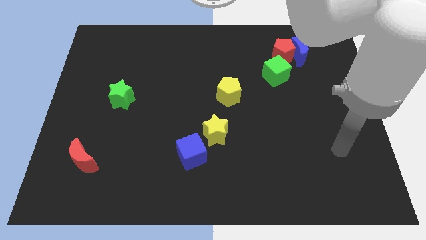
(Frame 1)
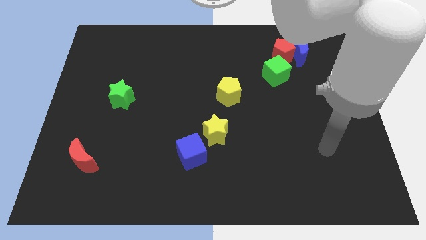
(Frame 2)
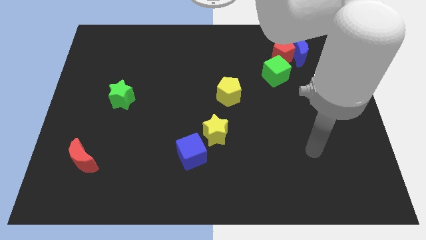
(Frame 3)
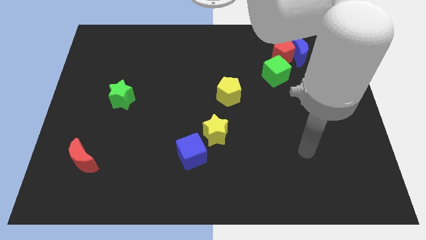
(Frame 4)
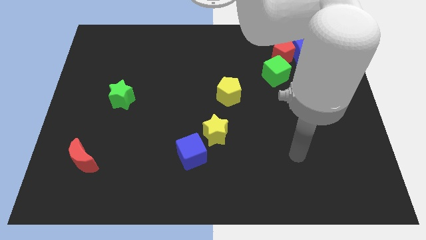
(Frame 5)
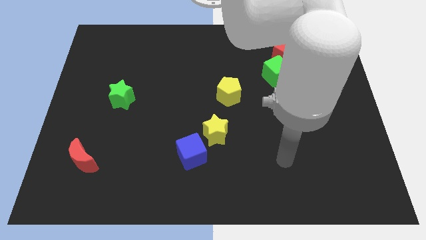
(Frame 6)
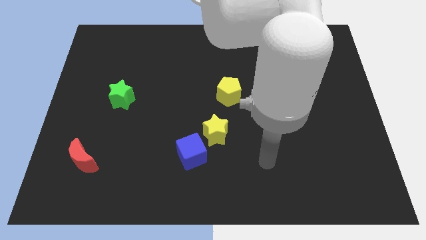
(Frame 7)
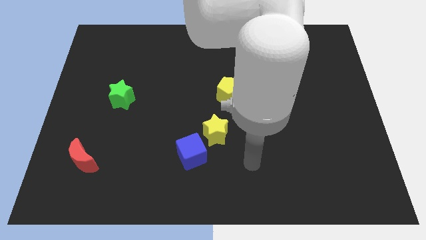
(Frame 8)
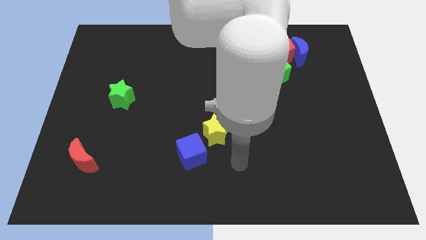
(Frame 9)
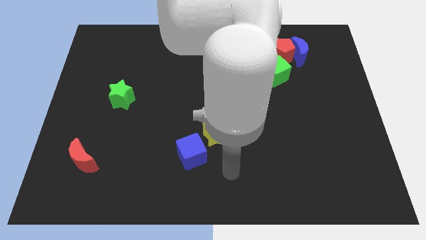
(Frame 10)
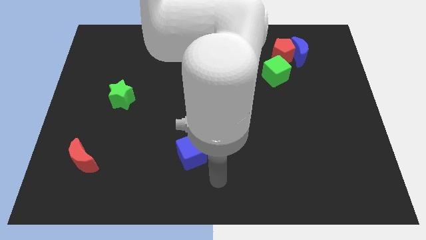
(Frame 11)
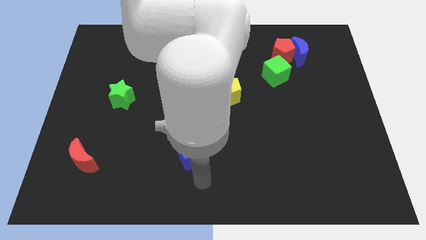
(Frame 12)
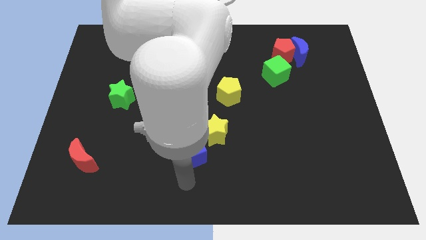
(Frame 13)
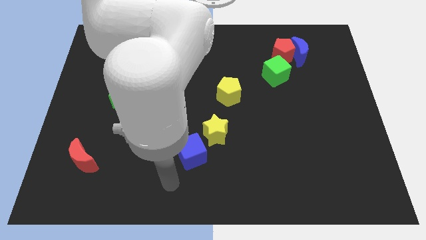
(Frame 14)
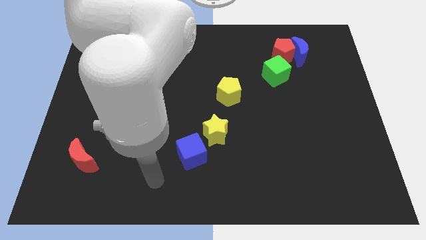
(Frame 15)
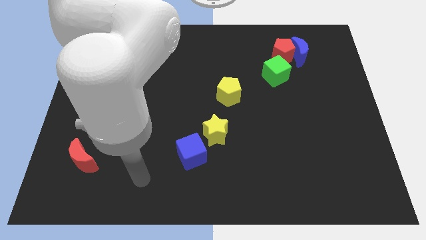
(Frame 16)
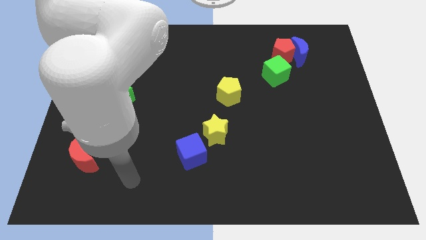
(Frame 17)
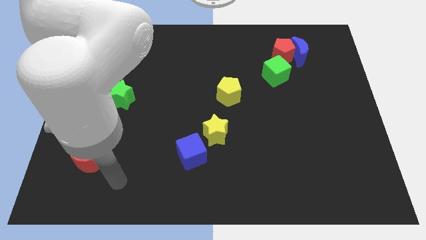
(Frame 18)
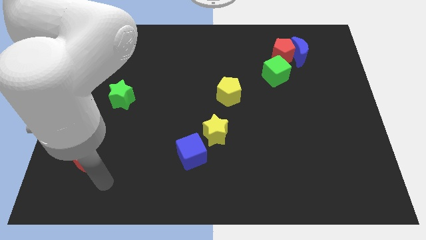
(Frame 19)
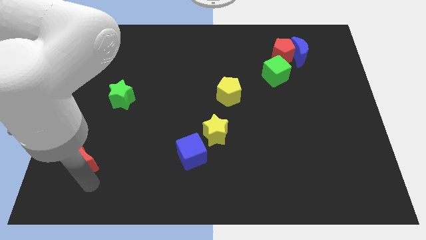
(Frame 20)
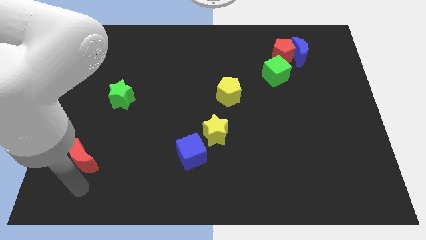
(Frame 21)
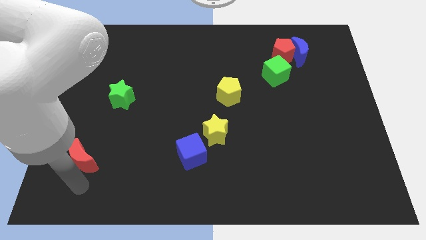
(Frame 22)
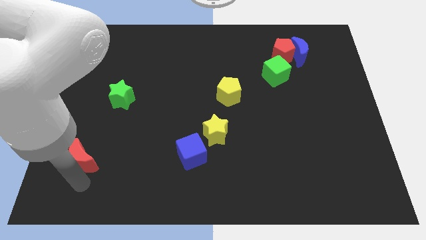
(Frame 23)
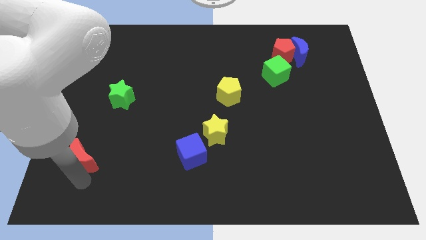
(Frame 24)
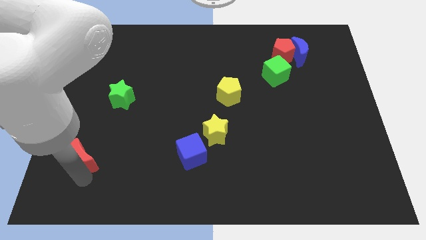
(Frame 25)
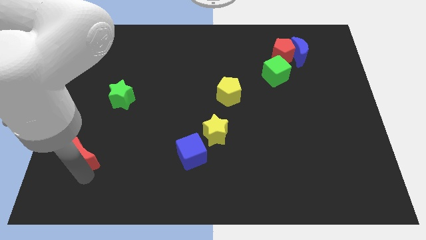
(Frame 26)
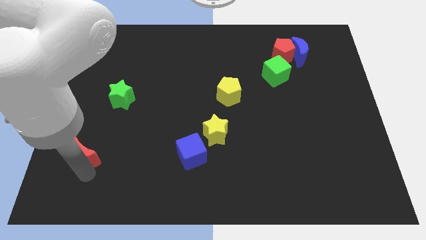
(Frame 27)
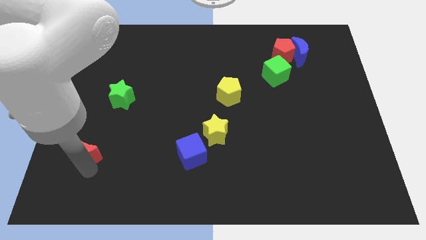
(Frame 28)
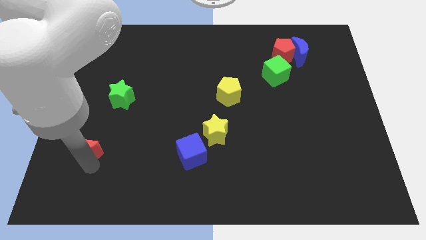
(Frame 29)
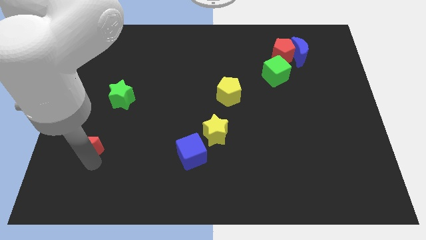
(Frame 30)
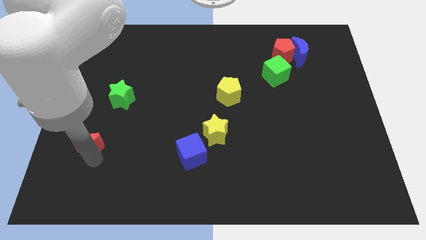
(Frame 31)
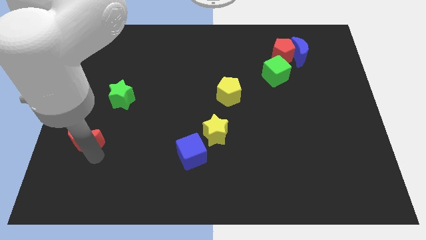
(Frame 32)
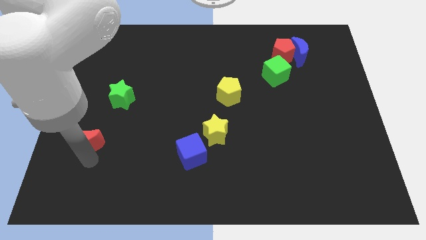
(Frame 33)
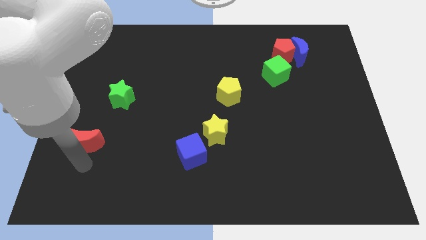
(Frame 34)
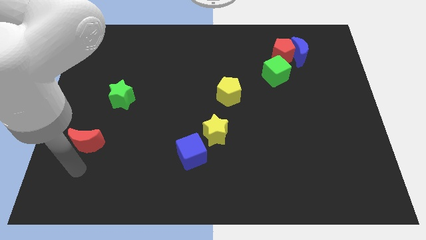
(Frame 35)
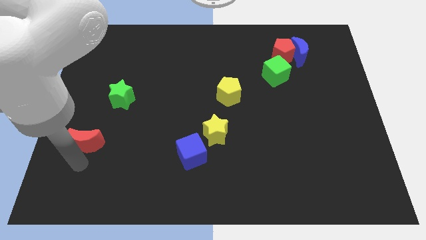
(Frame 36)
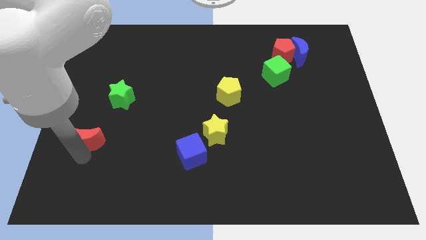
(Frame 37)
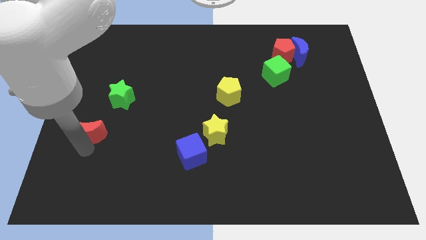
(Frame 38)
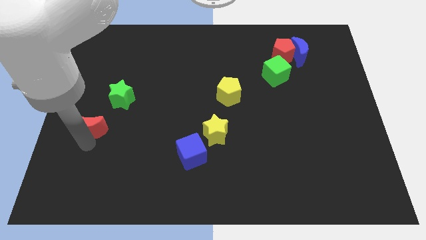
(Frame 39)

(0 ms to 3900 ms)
push the red moon a bit up

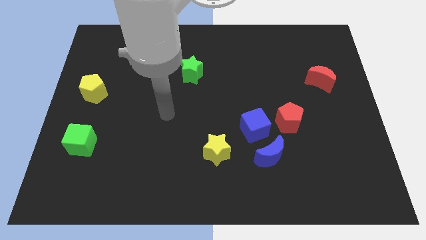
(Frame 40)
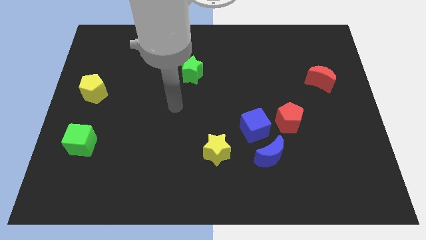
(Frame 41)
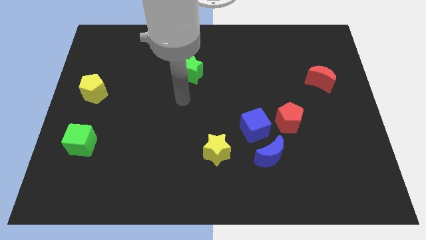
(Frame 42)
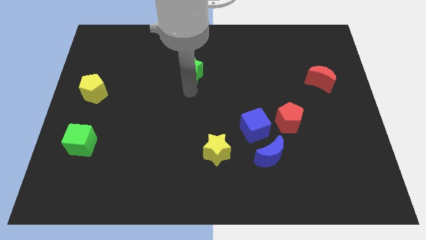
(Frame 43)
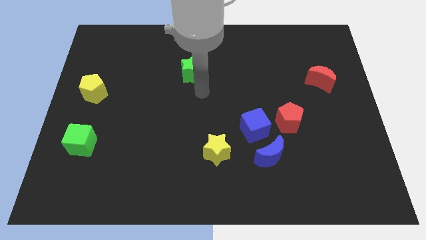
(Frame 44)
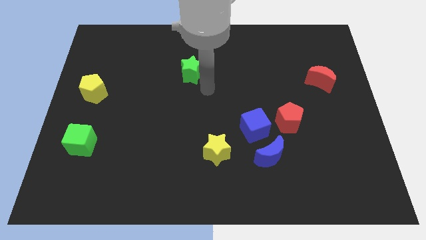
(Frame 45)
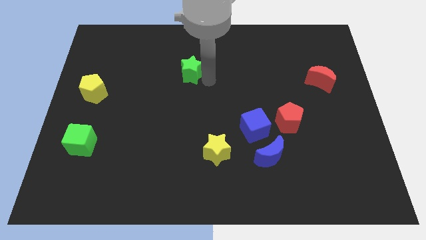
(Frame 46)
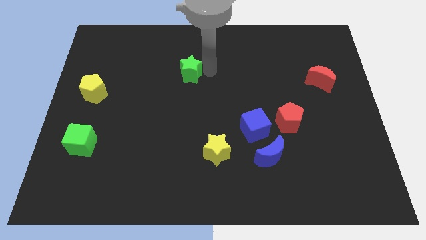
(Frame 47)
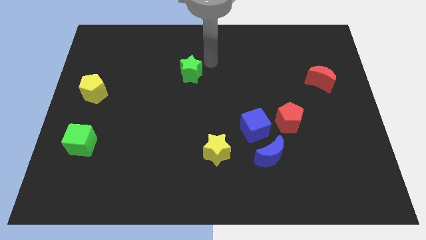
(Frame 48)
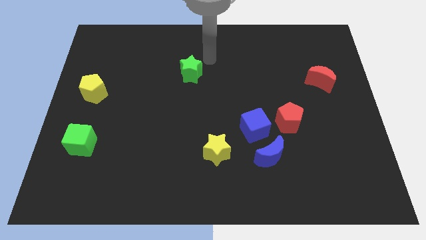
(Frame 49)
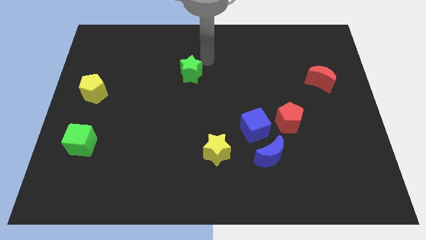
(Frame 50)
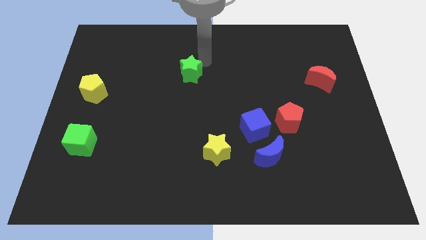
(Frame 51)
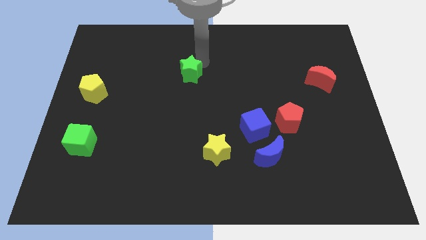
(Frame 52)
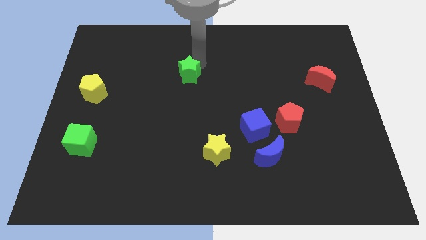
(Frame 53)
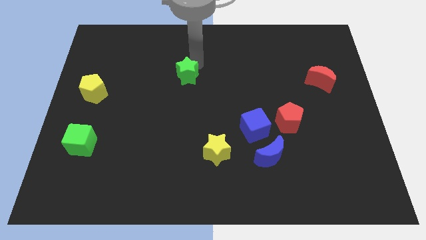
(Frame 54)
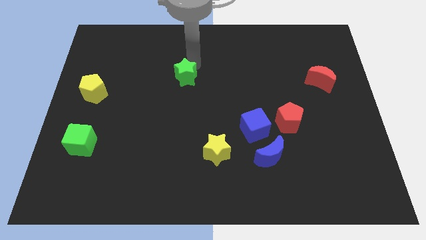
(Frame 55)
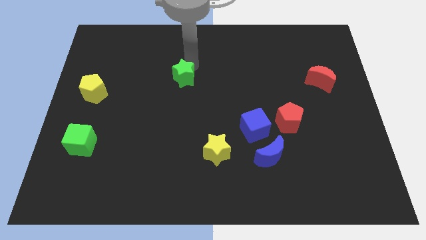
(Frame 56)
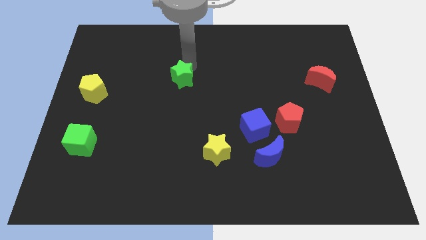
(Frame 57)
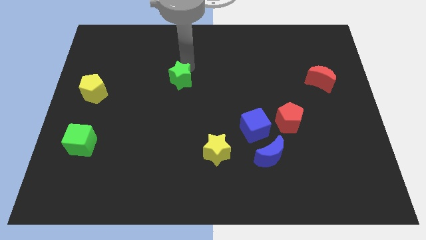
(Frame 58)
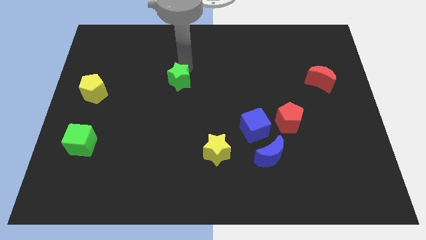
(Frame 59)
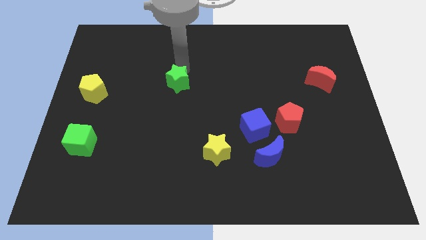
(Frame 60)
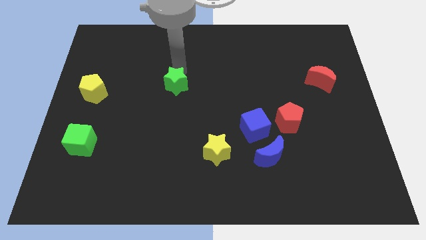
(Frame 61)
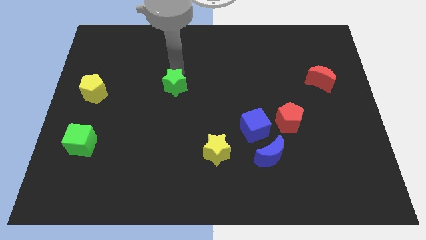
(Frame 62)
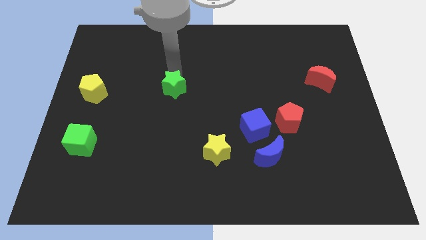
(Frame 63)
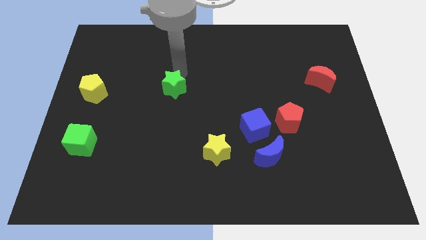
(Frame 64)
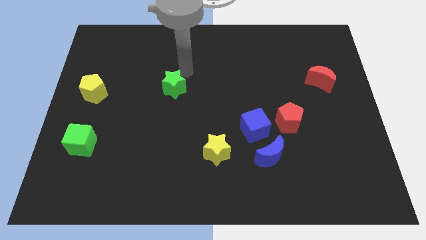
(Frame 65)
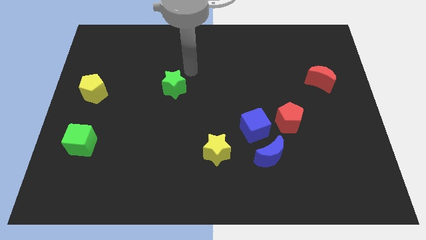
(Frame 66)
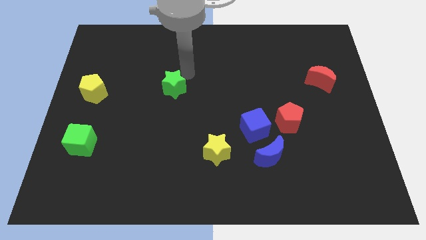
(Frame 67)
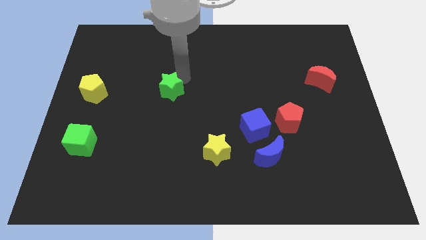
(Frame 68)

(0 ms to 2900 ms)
slightly move the green star down and then left

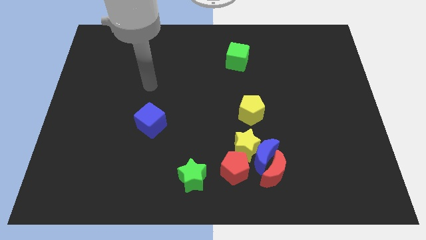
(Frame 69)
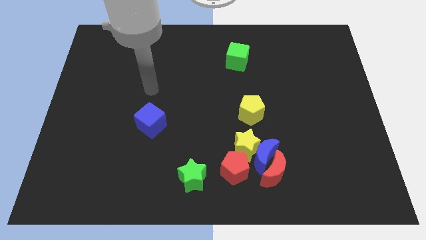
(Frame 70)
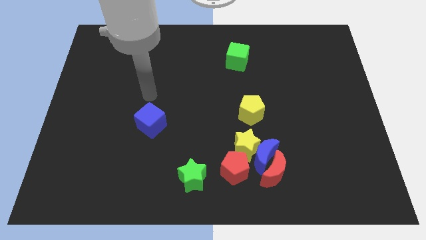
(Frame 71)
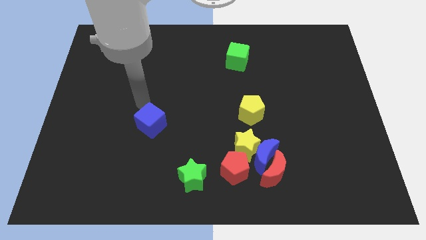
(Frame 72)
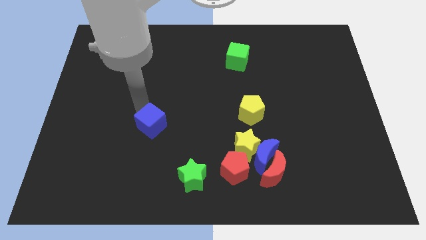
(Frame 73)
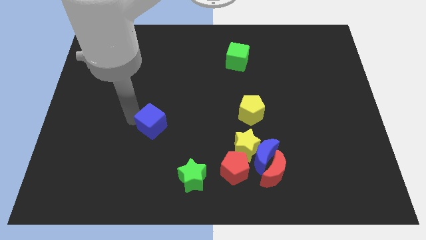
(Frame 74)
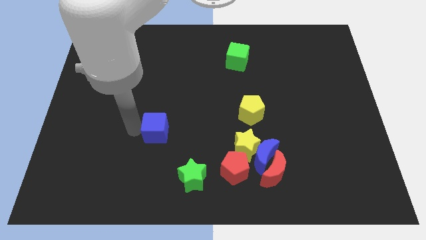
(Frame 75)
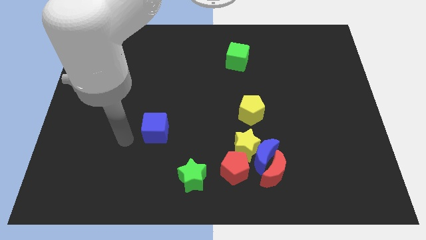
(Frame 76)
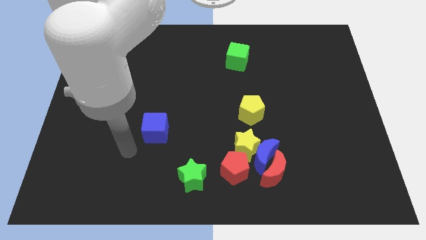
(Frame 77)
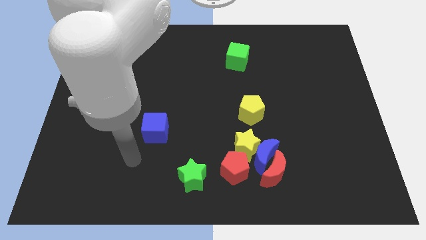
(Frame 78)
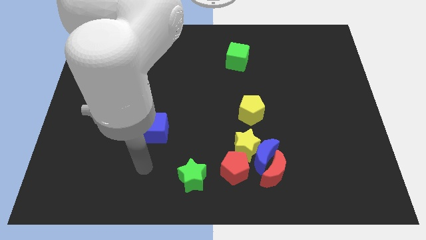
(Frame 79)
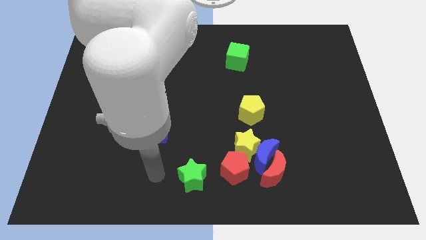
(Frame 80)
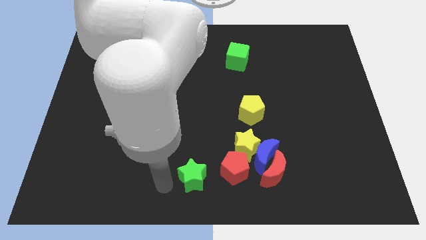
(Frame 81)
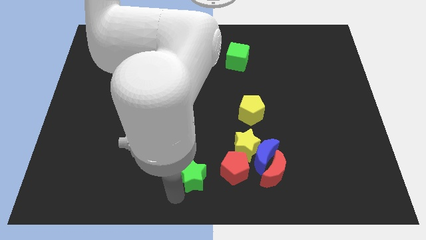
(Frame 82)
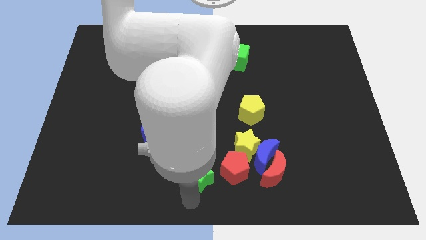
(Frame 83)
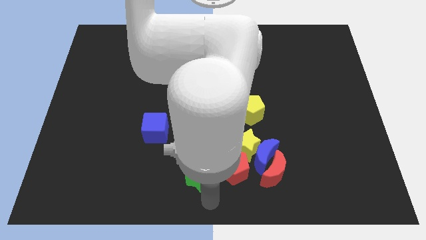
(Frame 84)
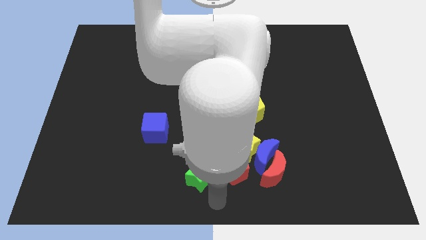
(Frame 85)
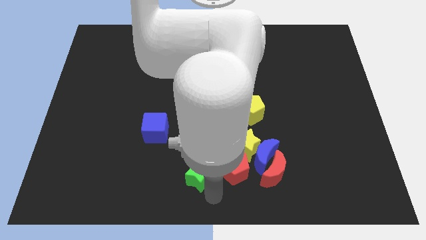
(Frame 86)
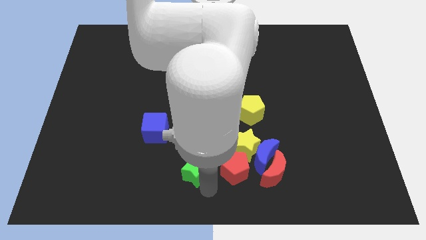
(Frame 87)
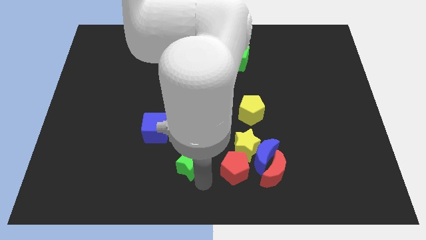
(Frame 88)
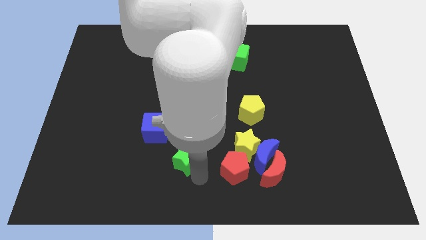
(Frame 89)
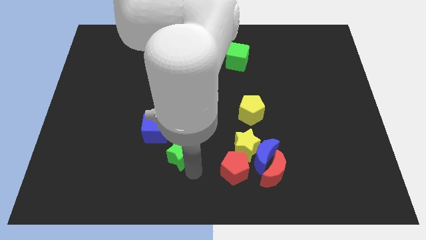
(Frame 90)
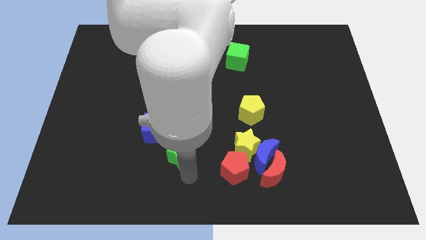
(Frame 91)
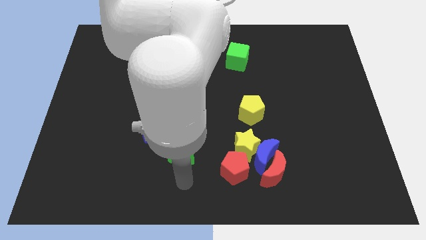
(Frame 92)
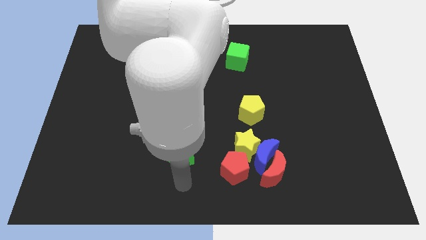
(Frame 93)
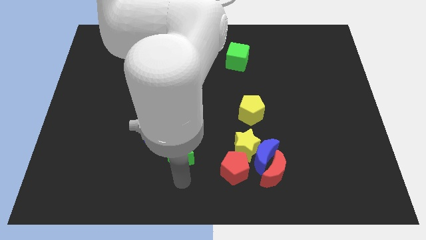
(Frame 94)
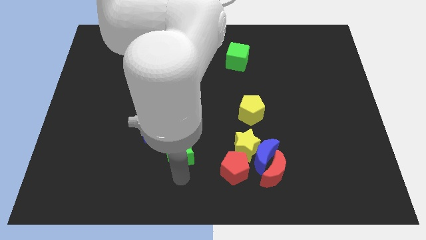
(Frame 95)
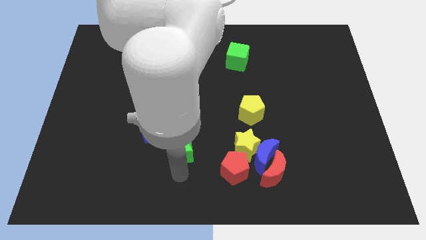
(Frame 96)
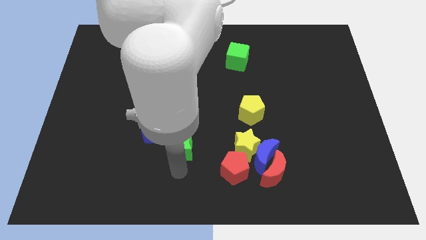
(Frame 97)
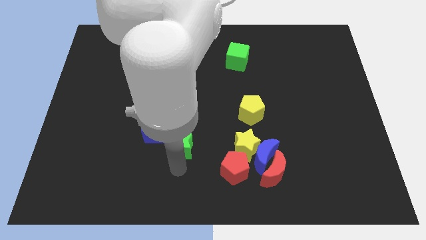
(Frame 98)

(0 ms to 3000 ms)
move the green star somewhat up
